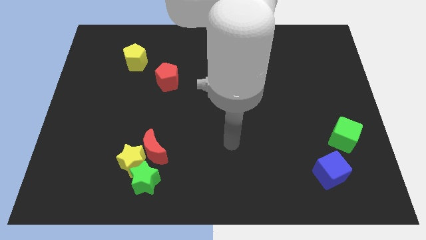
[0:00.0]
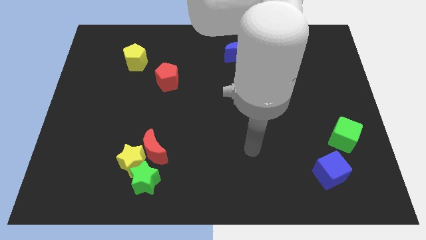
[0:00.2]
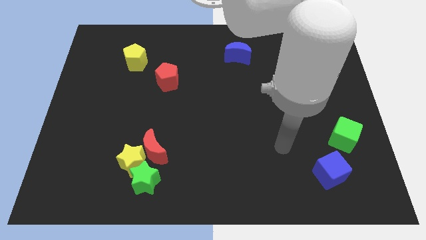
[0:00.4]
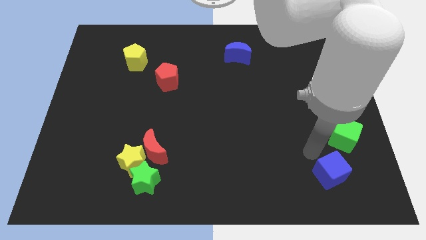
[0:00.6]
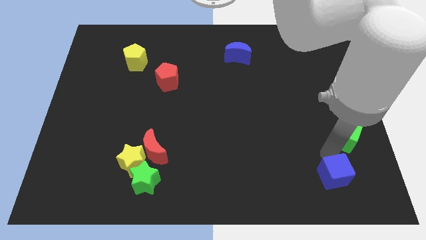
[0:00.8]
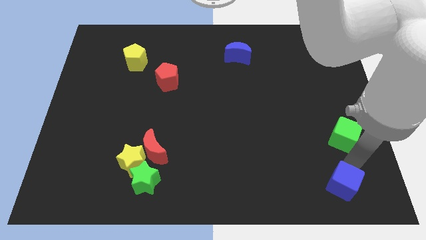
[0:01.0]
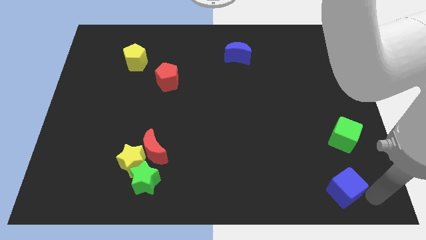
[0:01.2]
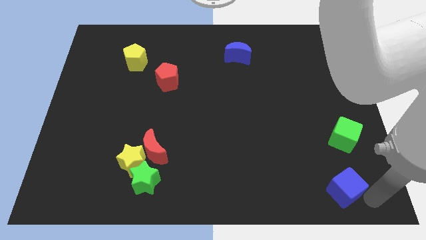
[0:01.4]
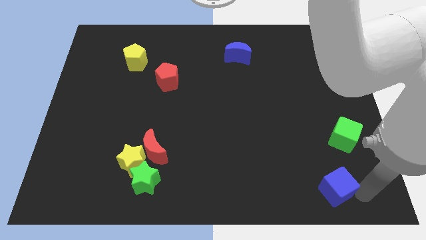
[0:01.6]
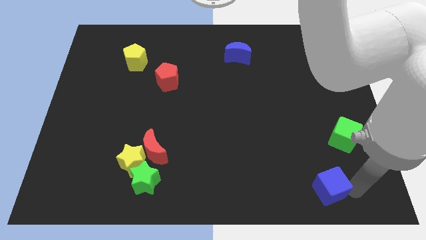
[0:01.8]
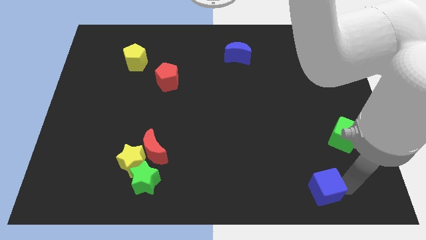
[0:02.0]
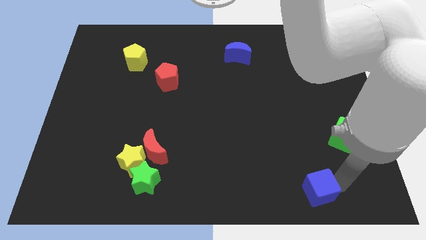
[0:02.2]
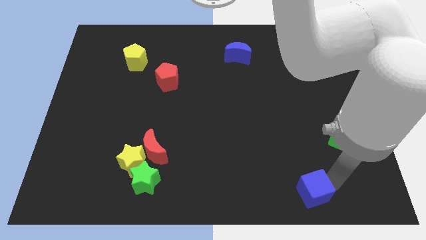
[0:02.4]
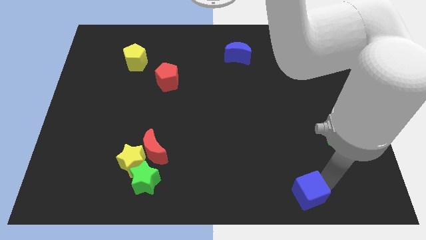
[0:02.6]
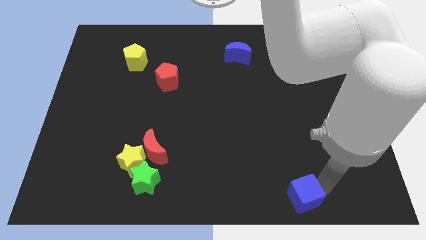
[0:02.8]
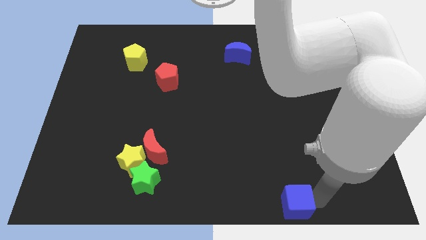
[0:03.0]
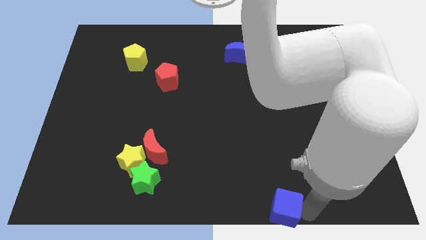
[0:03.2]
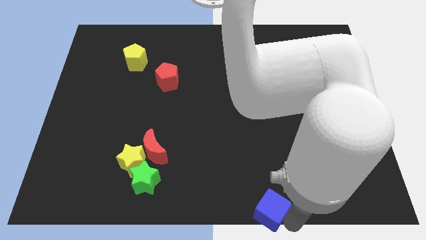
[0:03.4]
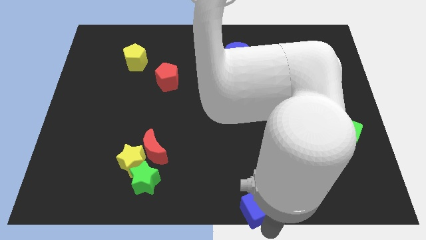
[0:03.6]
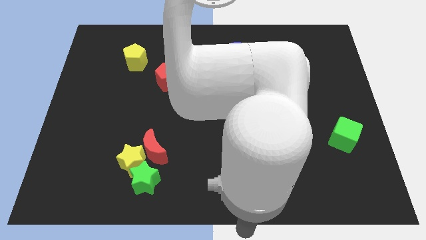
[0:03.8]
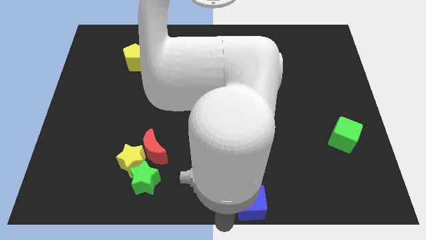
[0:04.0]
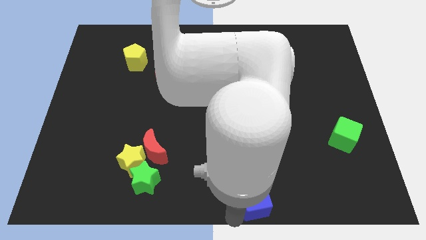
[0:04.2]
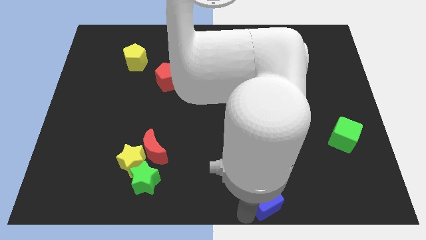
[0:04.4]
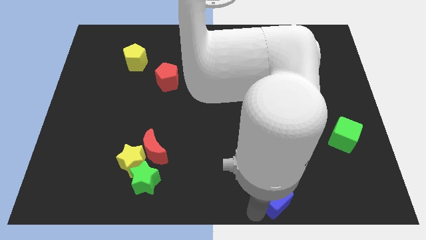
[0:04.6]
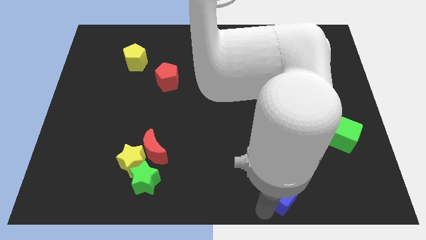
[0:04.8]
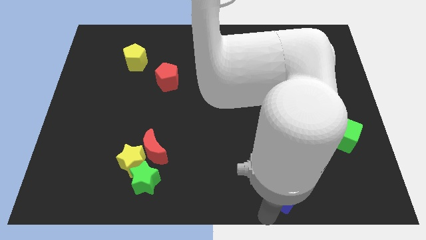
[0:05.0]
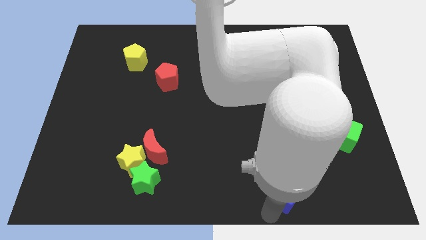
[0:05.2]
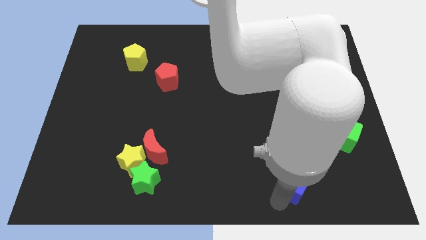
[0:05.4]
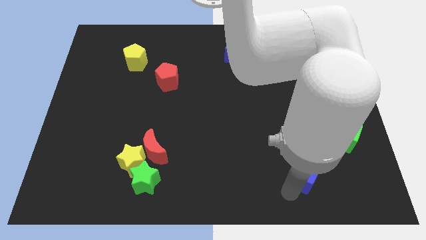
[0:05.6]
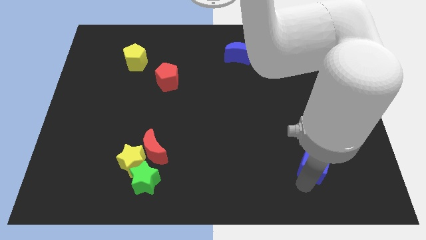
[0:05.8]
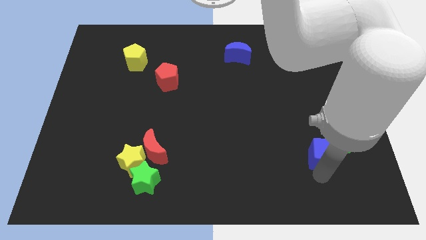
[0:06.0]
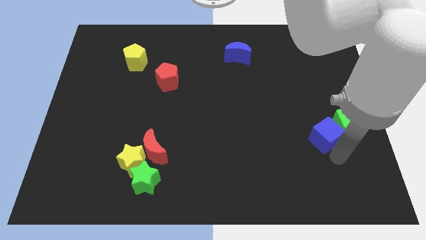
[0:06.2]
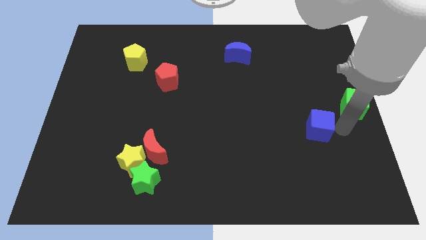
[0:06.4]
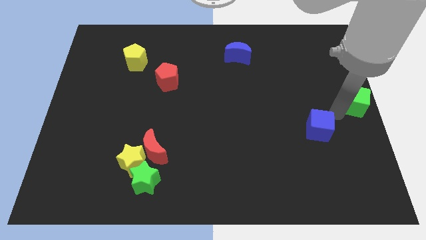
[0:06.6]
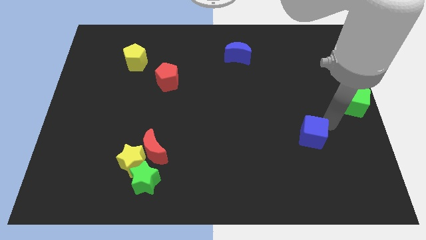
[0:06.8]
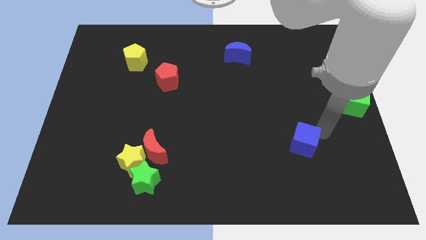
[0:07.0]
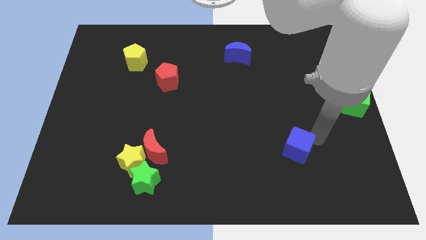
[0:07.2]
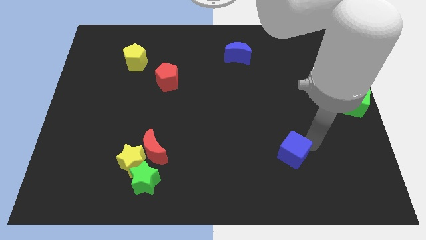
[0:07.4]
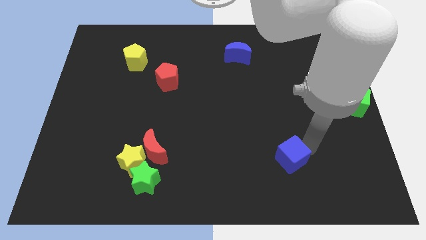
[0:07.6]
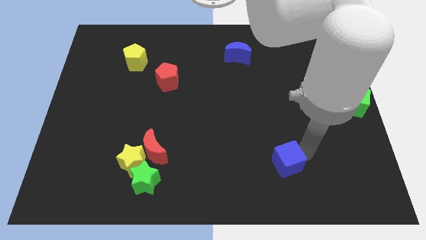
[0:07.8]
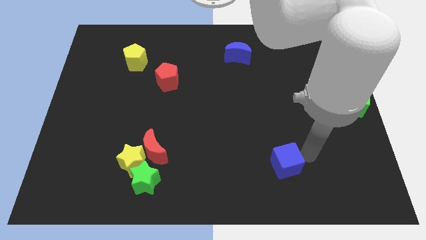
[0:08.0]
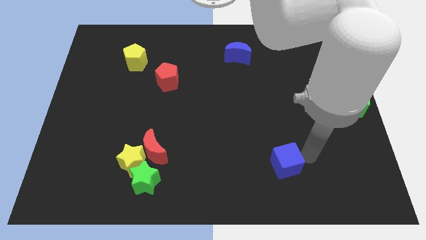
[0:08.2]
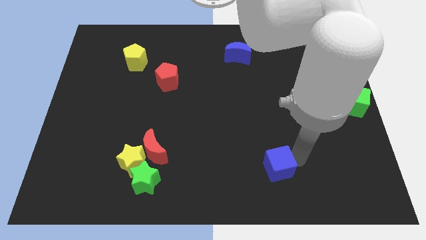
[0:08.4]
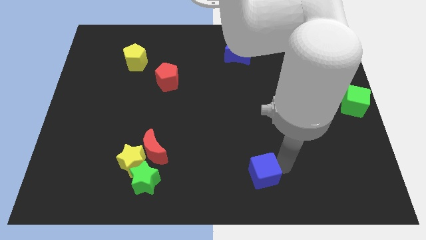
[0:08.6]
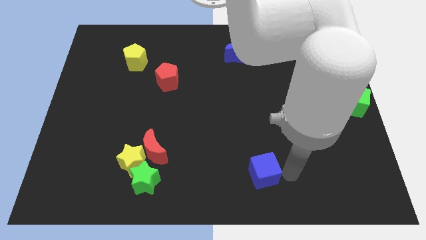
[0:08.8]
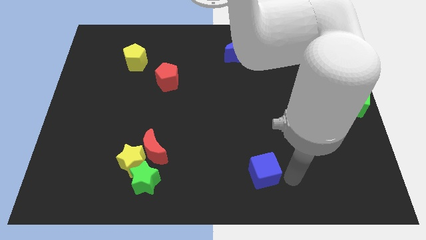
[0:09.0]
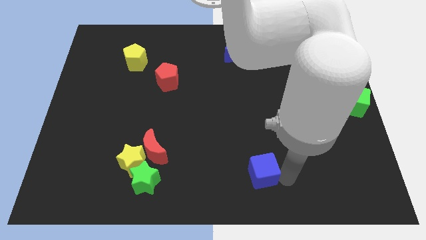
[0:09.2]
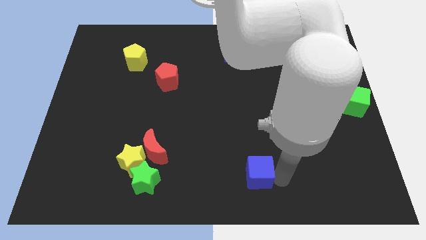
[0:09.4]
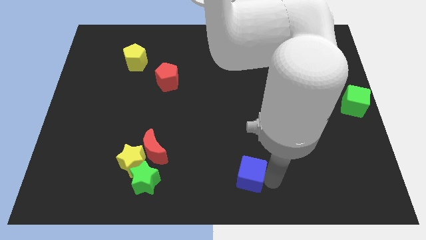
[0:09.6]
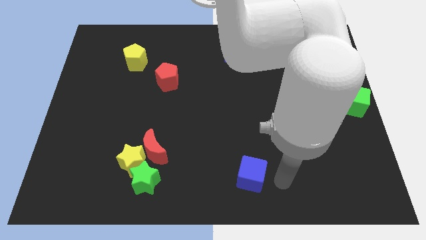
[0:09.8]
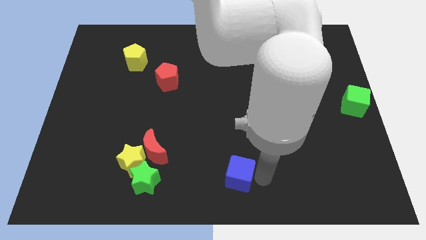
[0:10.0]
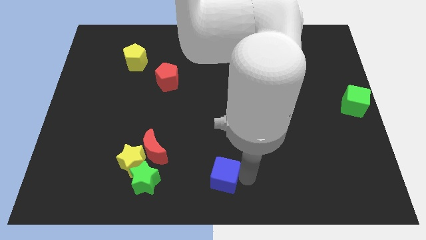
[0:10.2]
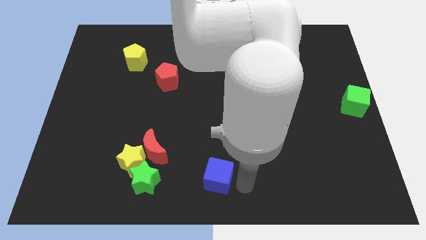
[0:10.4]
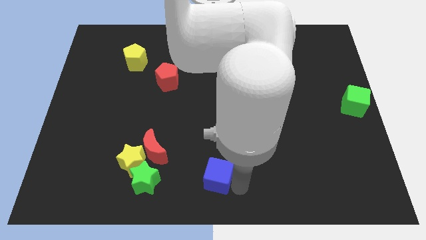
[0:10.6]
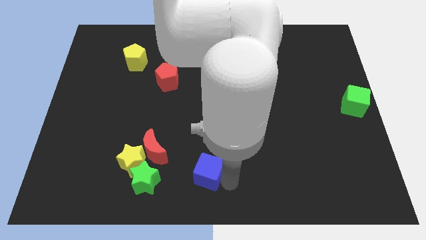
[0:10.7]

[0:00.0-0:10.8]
slide the blue cube to the right of the yellow star

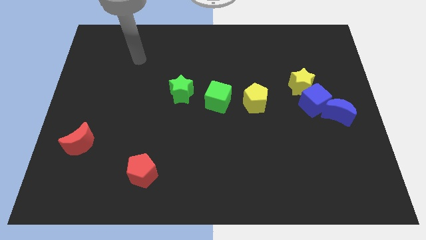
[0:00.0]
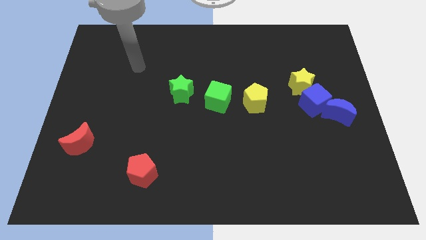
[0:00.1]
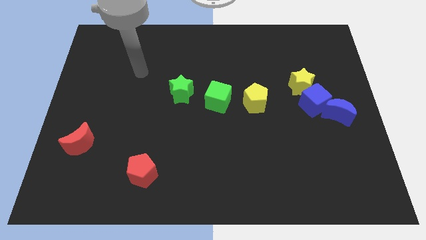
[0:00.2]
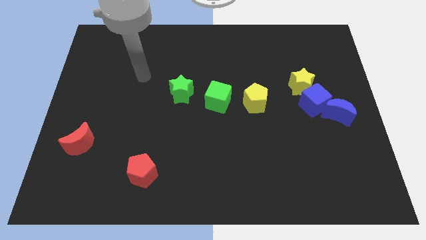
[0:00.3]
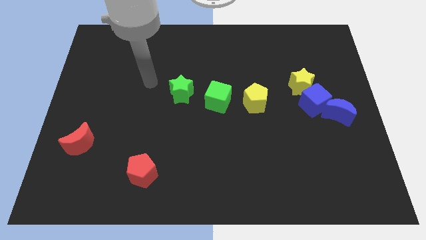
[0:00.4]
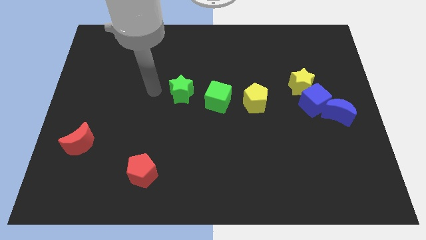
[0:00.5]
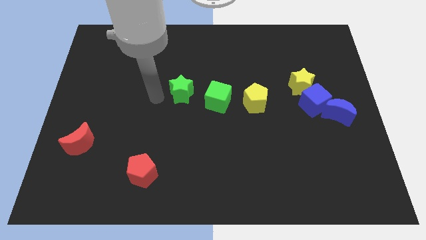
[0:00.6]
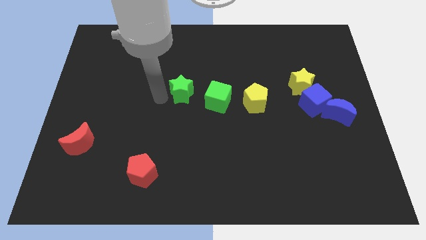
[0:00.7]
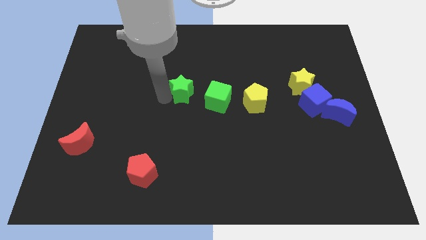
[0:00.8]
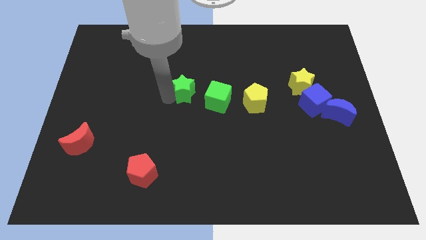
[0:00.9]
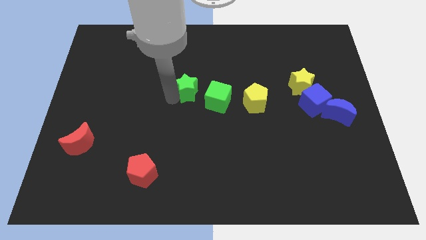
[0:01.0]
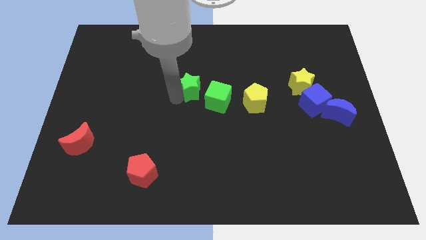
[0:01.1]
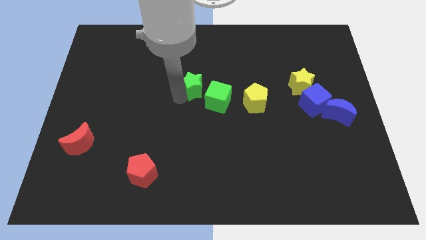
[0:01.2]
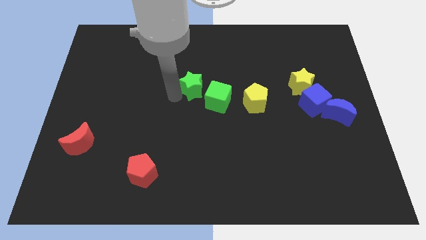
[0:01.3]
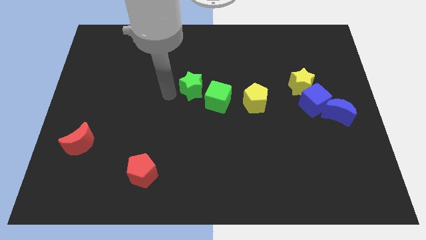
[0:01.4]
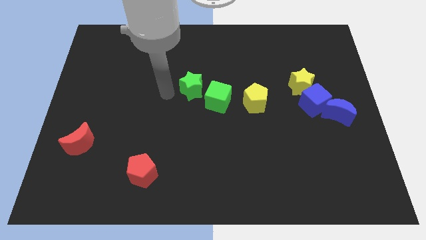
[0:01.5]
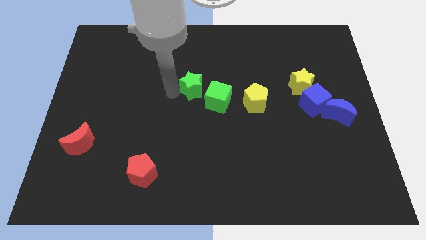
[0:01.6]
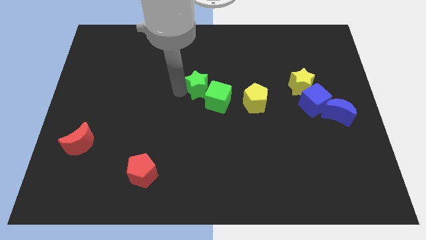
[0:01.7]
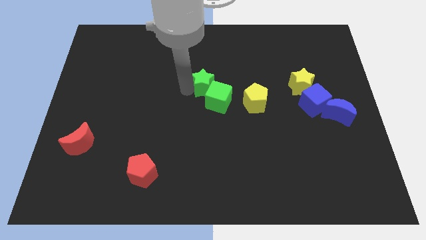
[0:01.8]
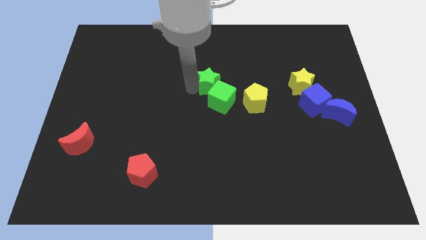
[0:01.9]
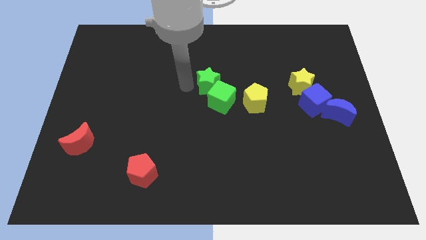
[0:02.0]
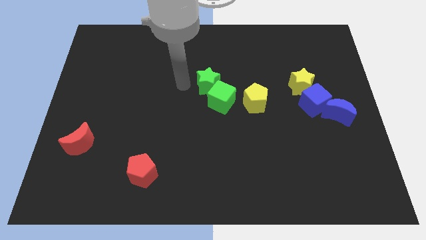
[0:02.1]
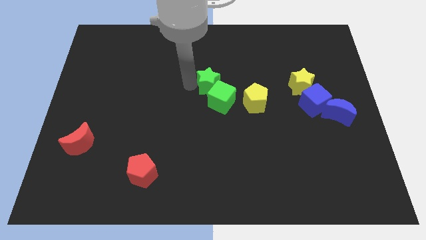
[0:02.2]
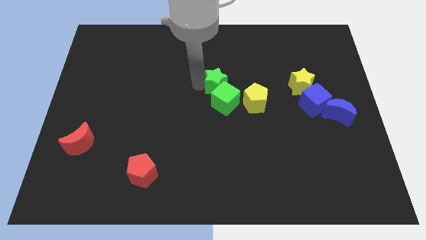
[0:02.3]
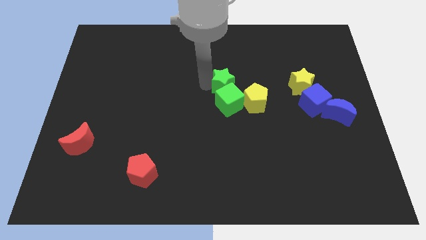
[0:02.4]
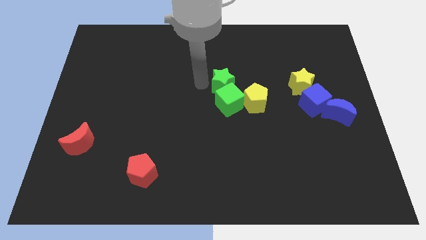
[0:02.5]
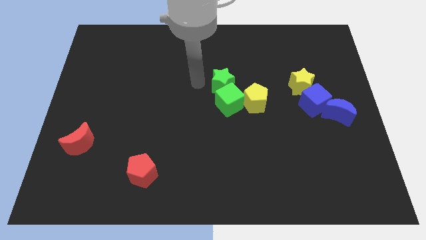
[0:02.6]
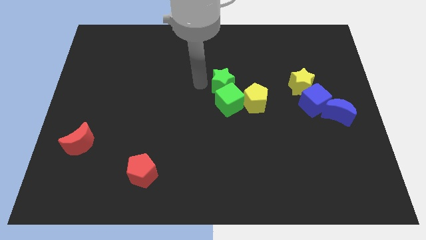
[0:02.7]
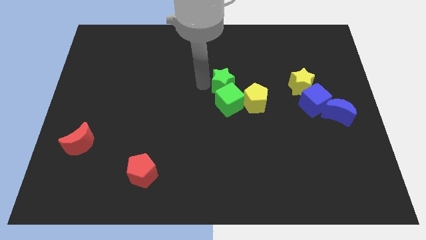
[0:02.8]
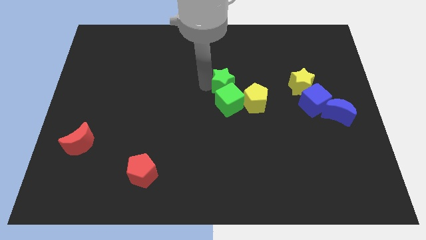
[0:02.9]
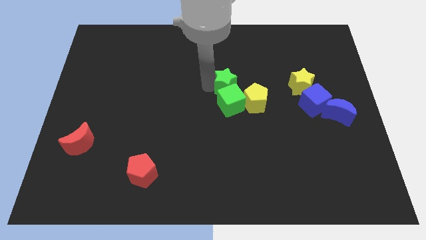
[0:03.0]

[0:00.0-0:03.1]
push the green star to the top right side of the green cube
